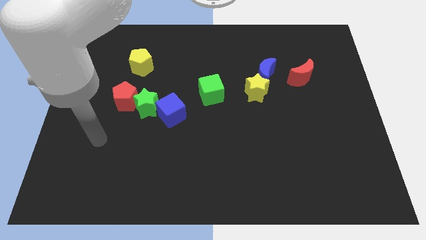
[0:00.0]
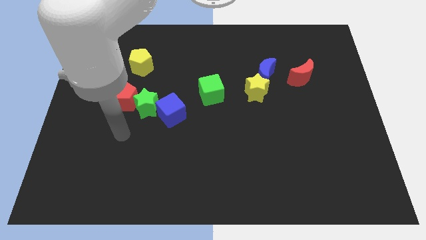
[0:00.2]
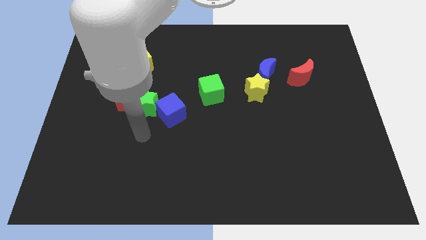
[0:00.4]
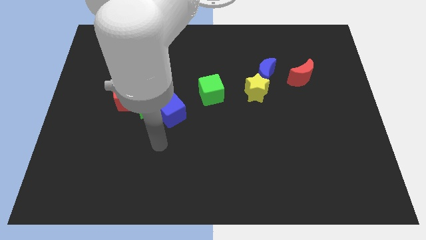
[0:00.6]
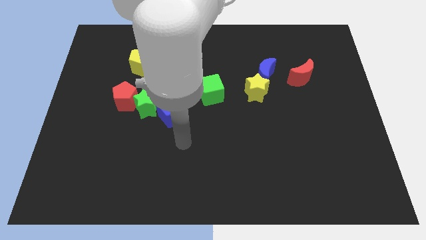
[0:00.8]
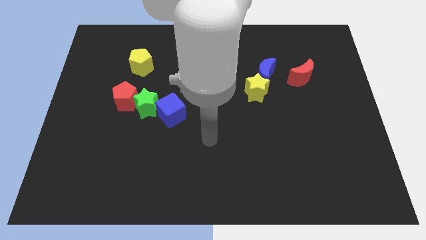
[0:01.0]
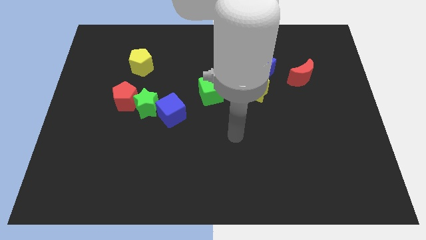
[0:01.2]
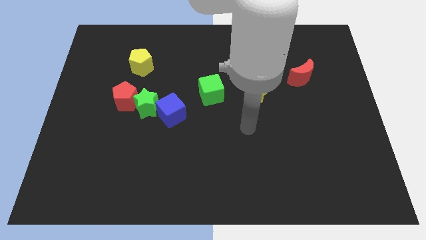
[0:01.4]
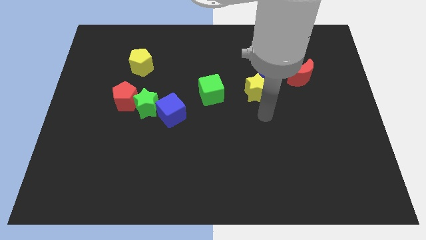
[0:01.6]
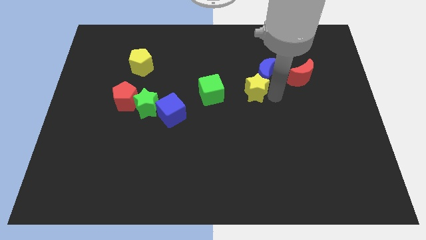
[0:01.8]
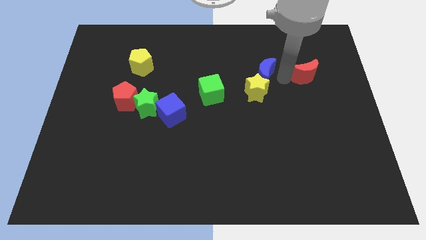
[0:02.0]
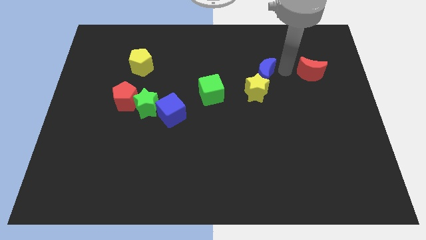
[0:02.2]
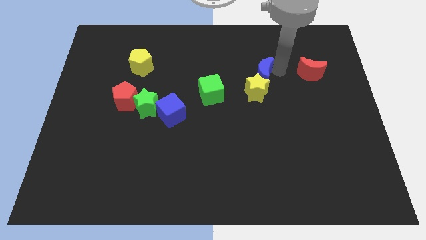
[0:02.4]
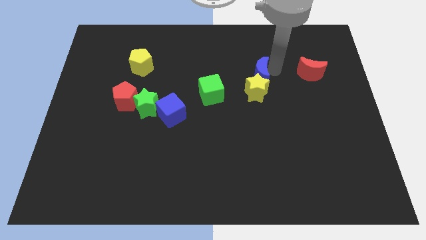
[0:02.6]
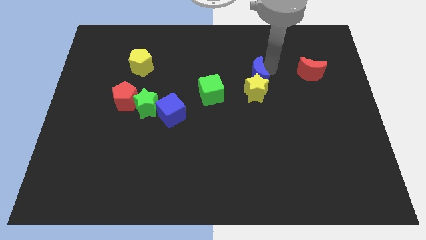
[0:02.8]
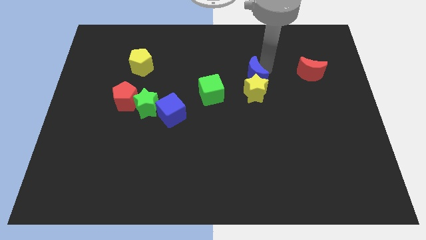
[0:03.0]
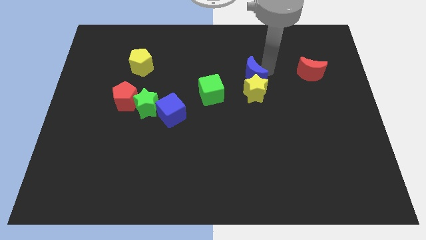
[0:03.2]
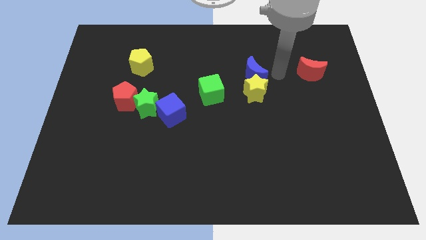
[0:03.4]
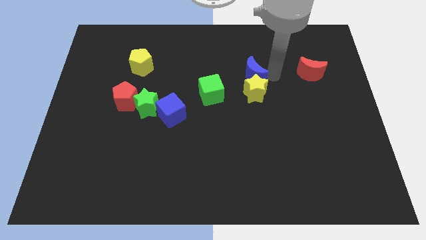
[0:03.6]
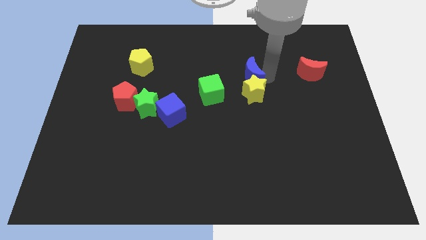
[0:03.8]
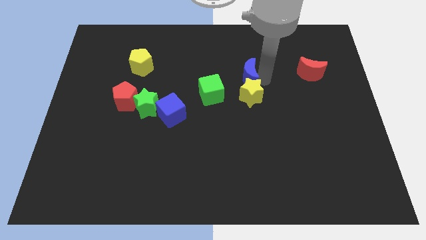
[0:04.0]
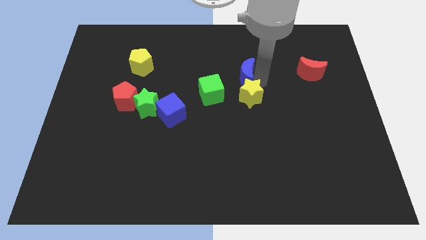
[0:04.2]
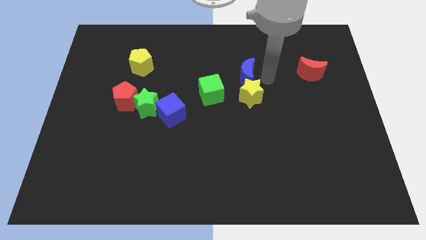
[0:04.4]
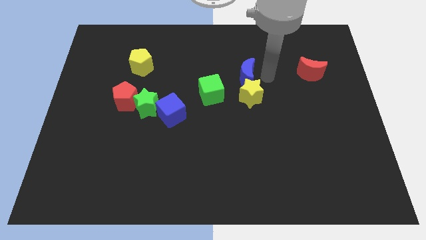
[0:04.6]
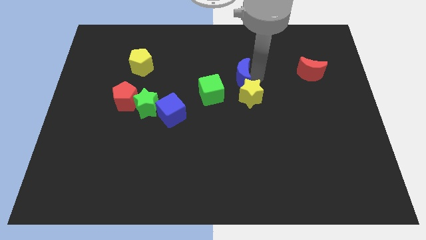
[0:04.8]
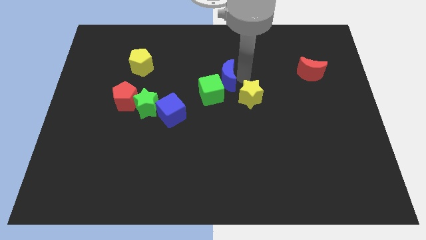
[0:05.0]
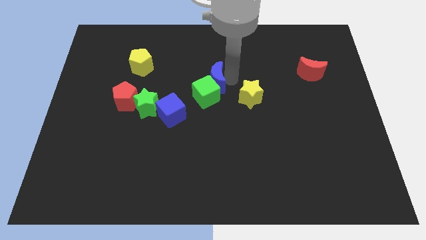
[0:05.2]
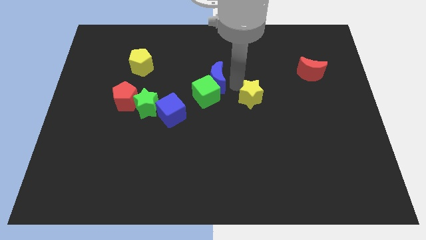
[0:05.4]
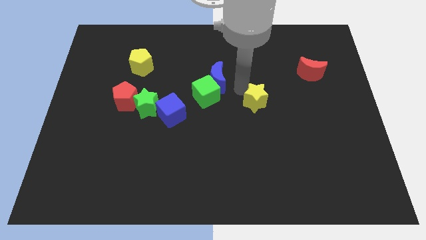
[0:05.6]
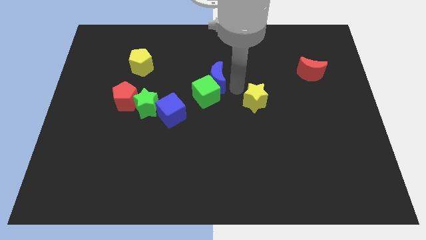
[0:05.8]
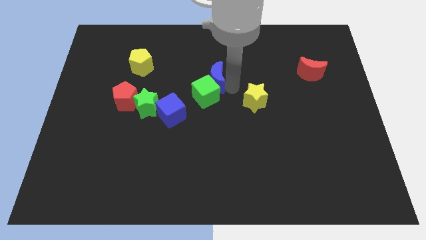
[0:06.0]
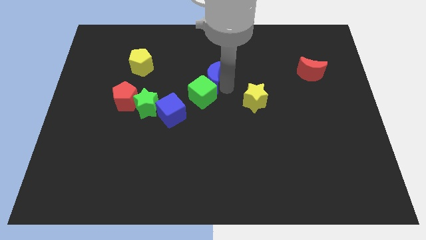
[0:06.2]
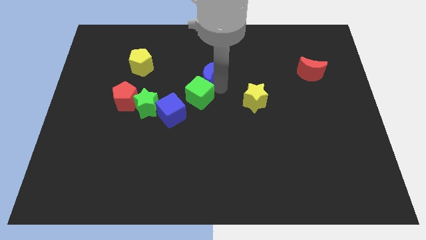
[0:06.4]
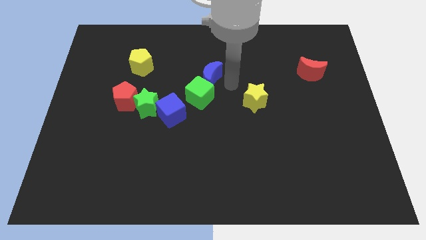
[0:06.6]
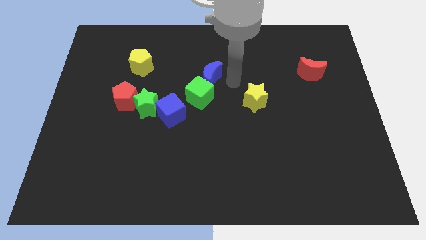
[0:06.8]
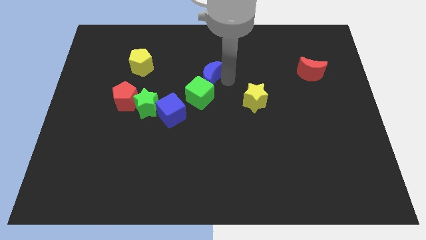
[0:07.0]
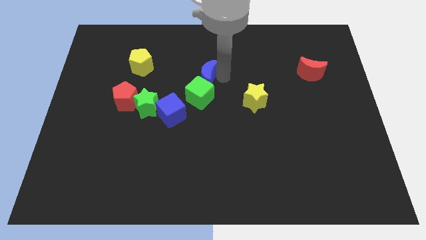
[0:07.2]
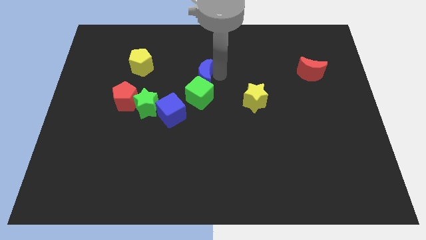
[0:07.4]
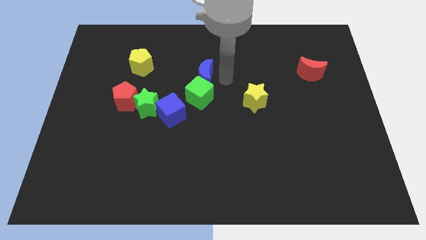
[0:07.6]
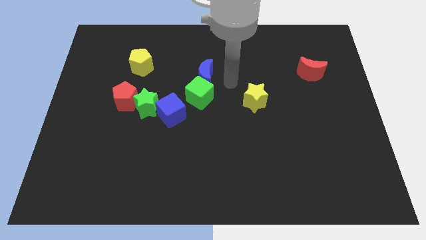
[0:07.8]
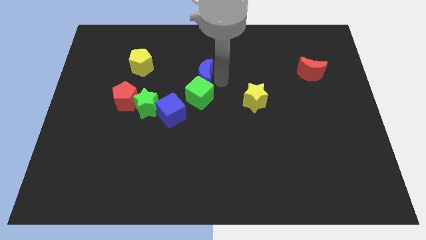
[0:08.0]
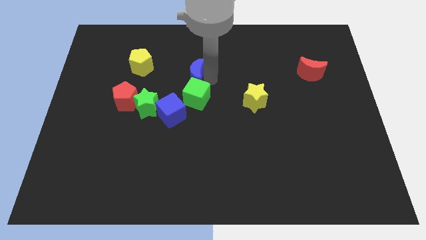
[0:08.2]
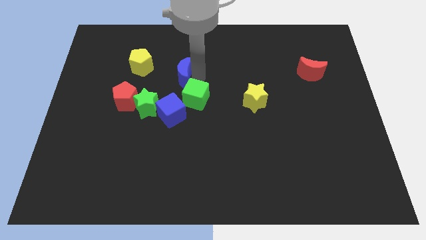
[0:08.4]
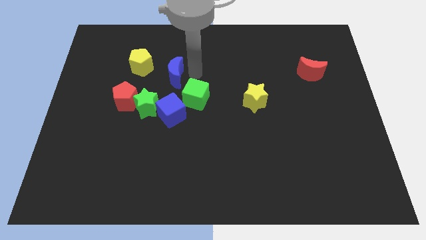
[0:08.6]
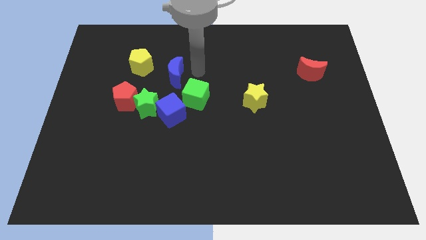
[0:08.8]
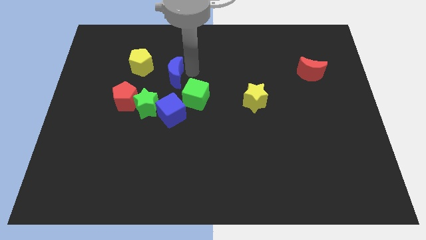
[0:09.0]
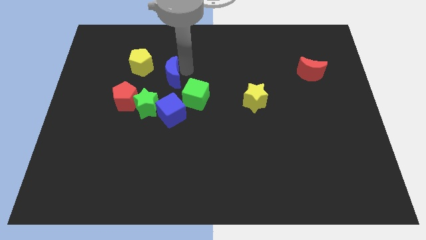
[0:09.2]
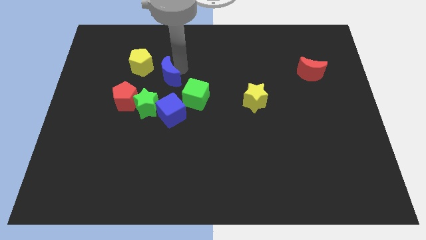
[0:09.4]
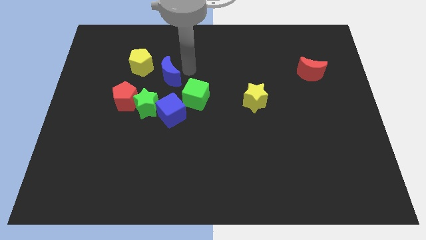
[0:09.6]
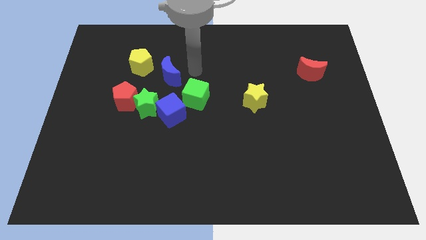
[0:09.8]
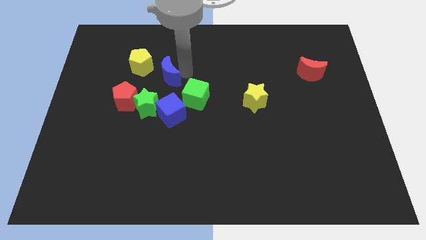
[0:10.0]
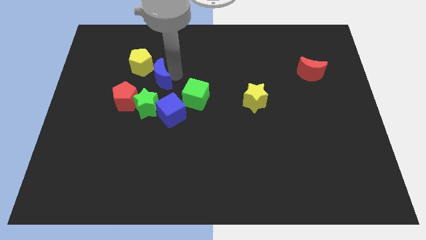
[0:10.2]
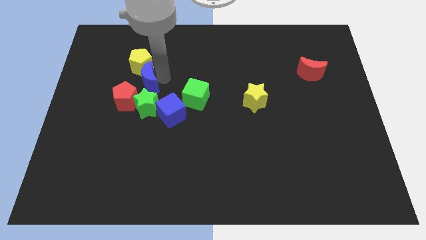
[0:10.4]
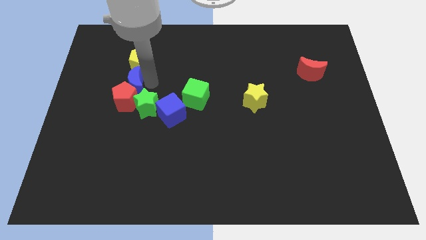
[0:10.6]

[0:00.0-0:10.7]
move the blue moon diagonally up and to the left of the red pentagon

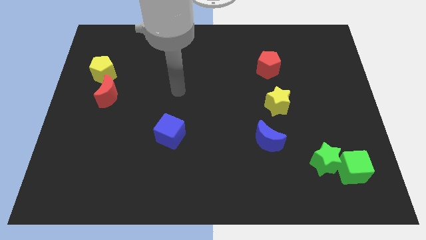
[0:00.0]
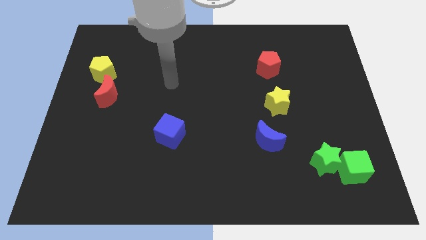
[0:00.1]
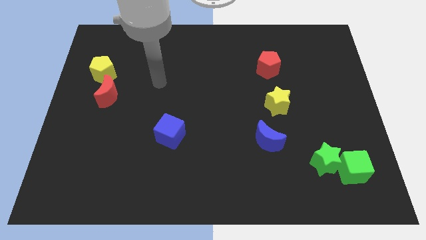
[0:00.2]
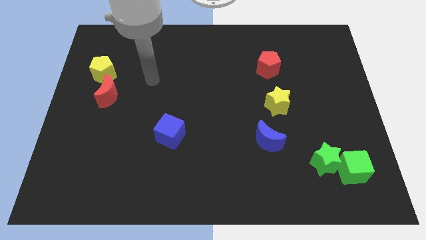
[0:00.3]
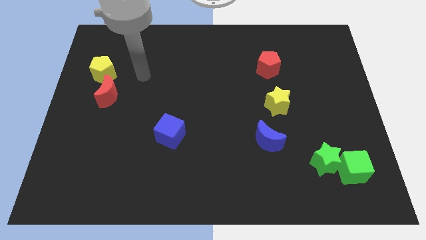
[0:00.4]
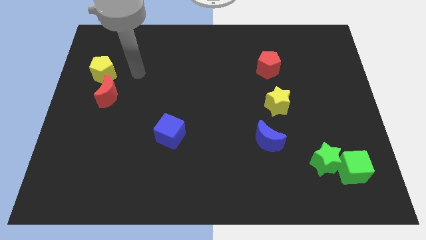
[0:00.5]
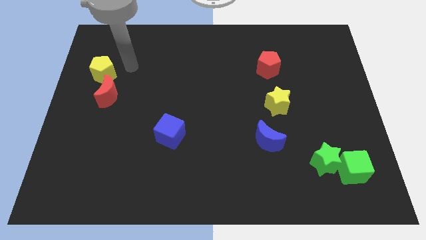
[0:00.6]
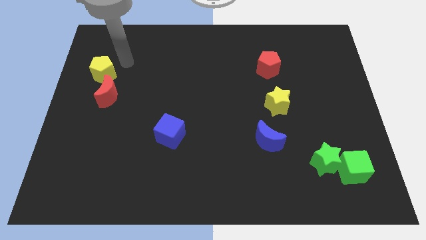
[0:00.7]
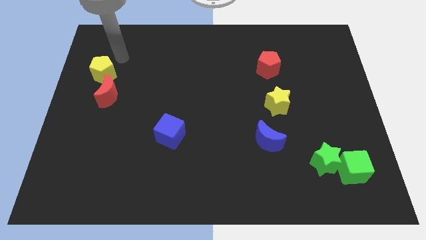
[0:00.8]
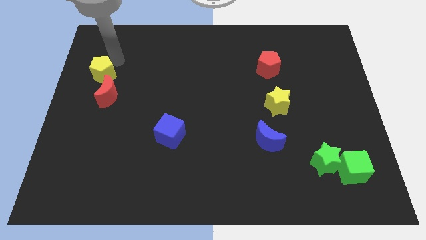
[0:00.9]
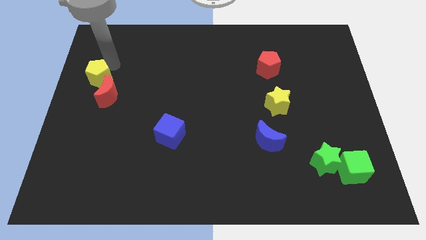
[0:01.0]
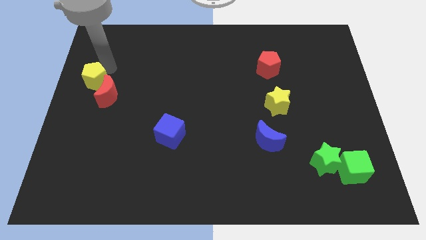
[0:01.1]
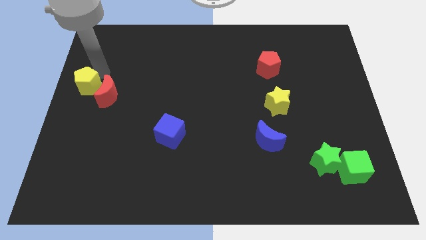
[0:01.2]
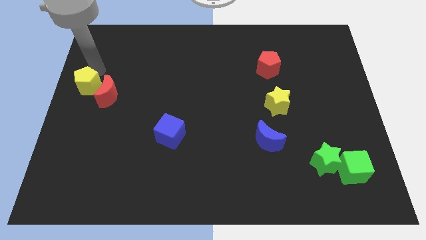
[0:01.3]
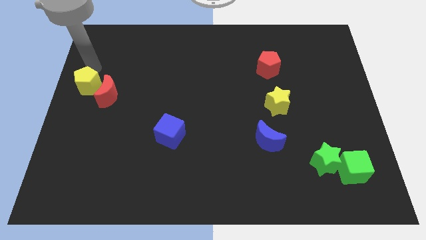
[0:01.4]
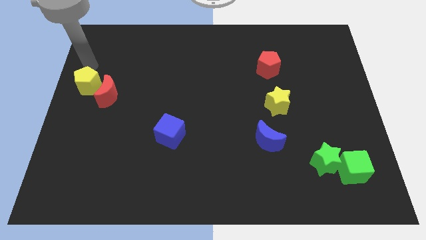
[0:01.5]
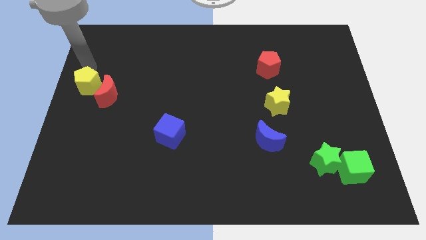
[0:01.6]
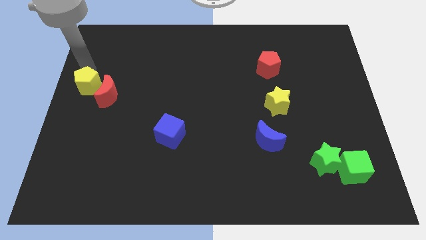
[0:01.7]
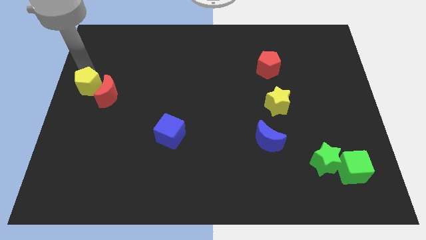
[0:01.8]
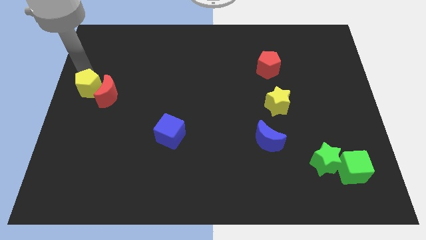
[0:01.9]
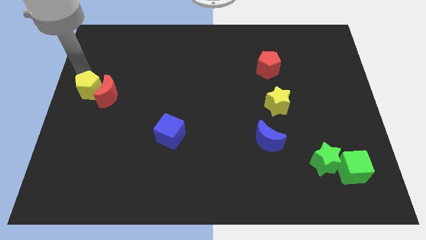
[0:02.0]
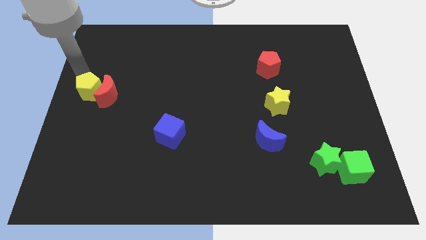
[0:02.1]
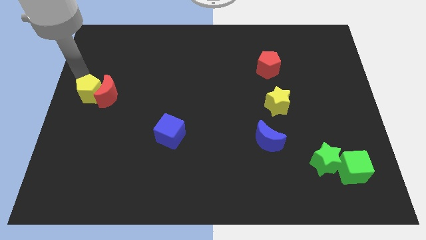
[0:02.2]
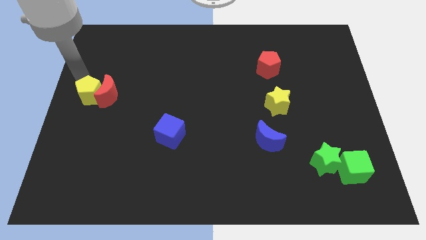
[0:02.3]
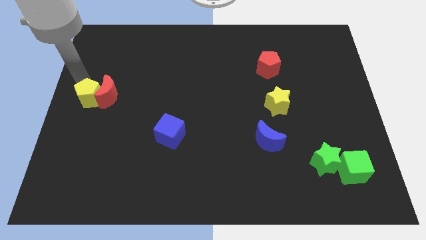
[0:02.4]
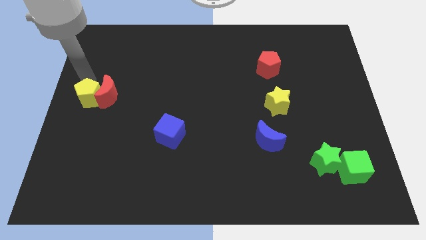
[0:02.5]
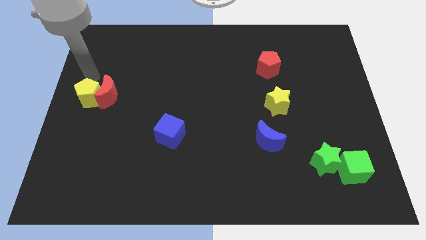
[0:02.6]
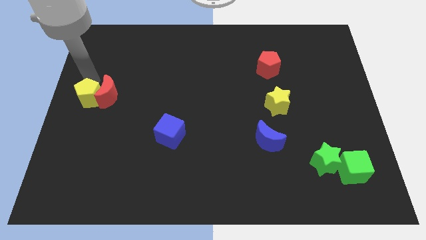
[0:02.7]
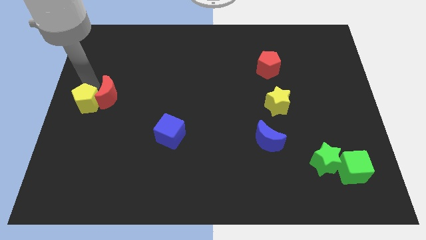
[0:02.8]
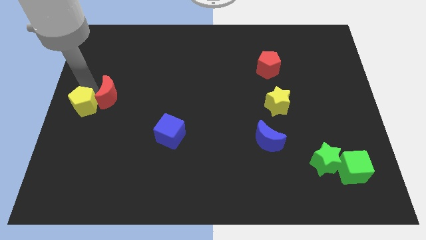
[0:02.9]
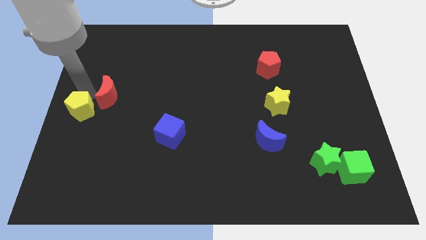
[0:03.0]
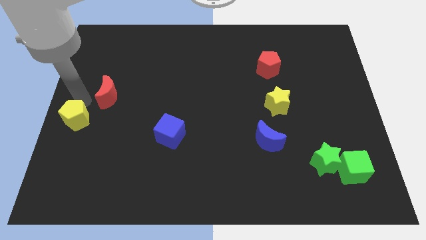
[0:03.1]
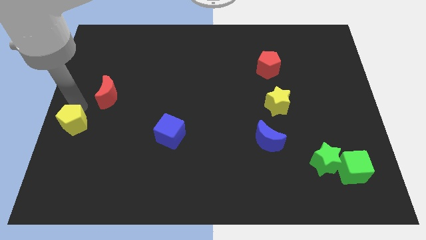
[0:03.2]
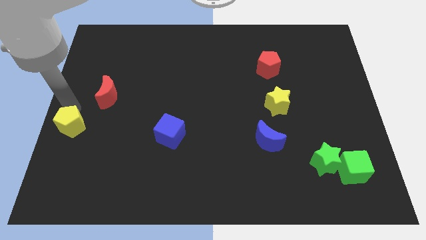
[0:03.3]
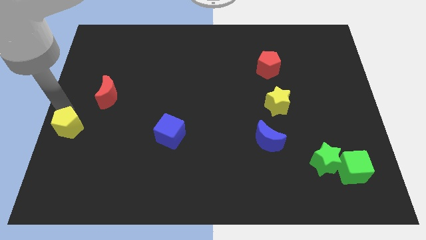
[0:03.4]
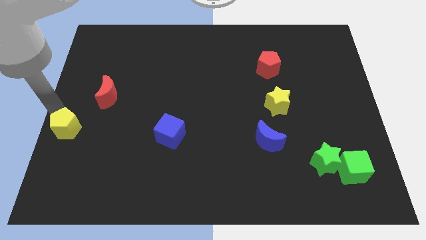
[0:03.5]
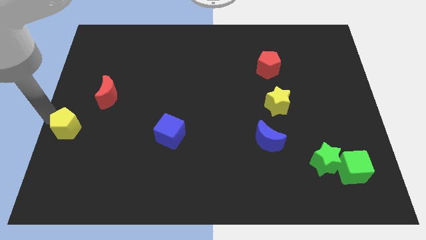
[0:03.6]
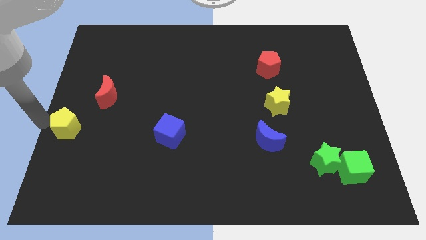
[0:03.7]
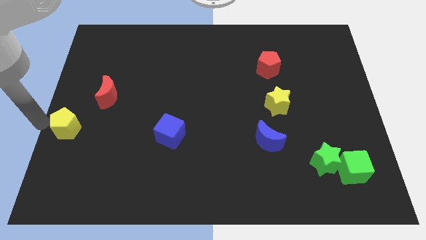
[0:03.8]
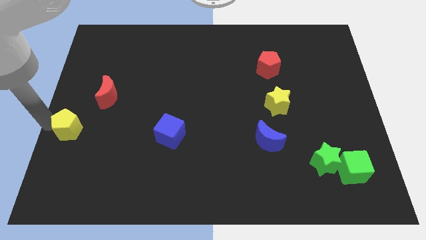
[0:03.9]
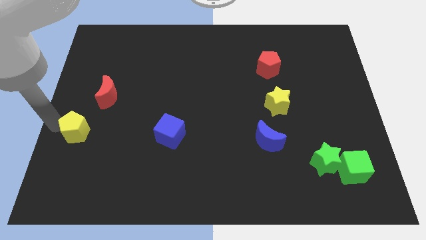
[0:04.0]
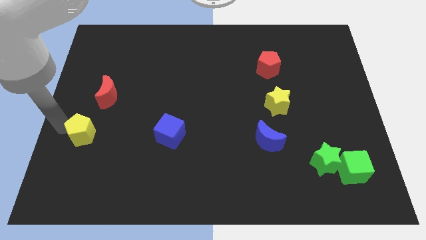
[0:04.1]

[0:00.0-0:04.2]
move the yellow pentagon below the red moon
